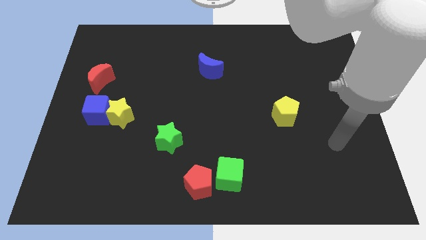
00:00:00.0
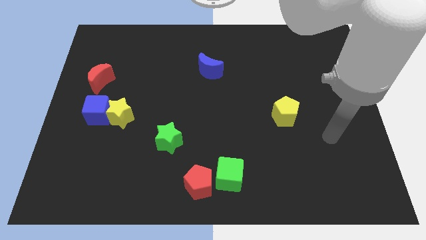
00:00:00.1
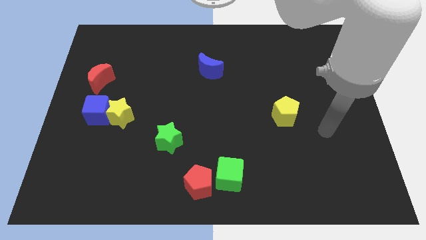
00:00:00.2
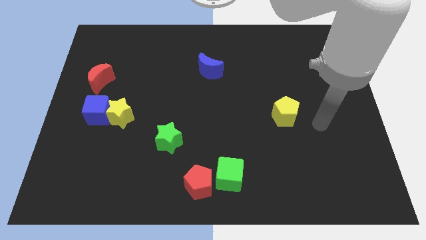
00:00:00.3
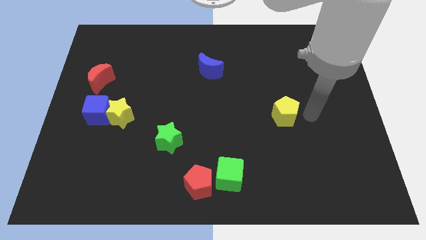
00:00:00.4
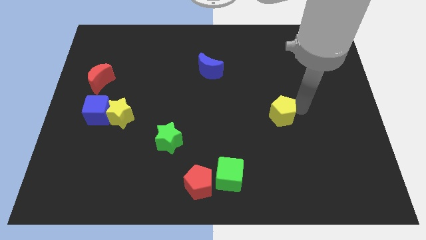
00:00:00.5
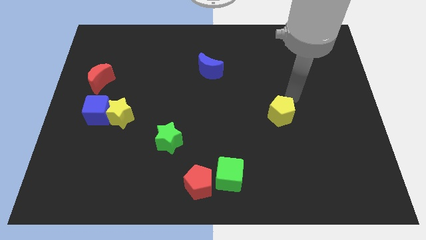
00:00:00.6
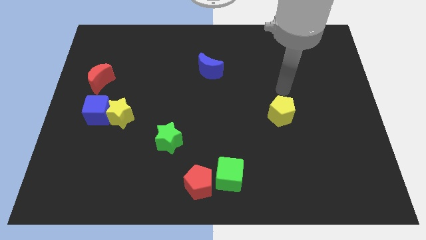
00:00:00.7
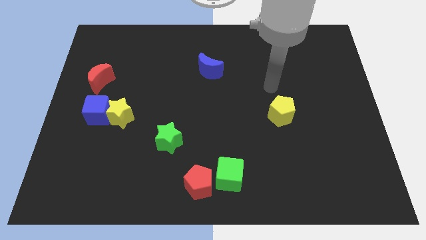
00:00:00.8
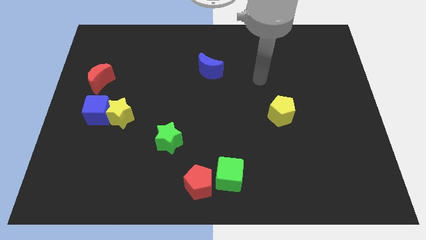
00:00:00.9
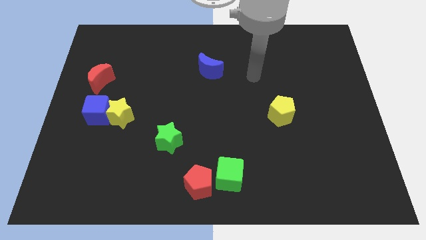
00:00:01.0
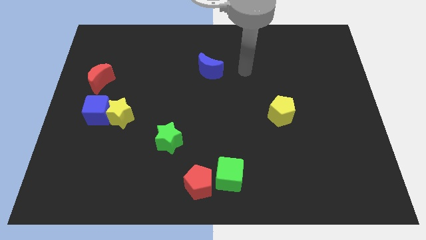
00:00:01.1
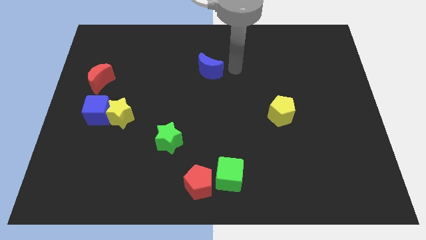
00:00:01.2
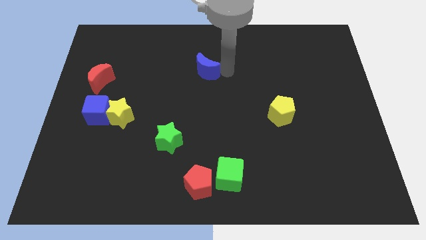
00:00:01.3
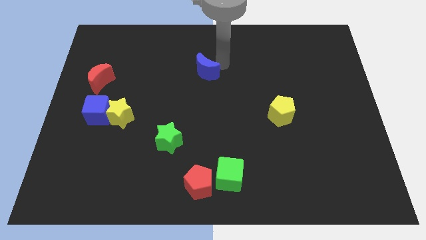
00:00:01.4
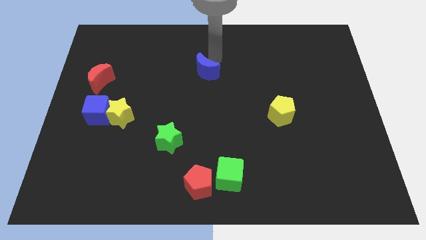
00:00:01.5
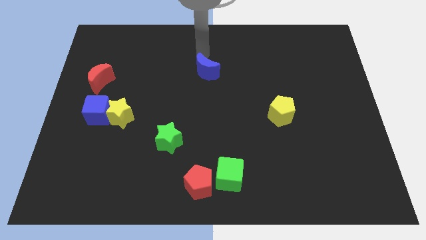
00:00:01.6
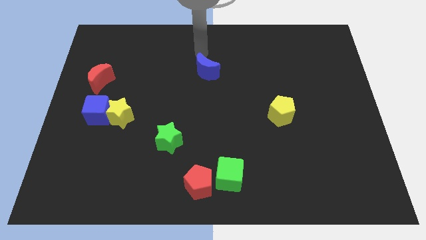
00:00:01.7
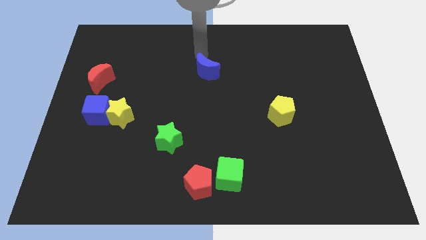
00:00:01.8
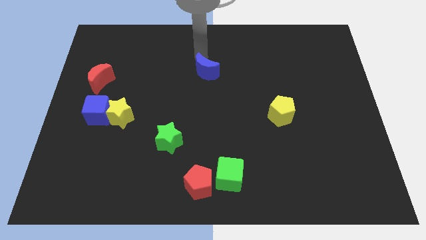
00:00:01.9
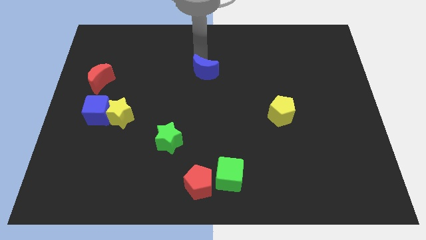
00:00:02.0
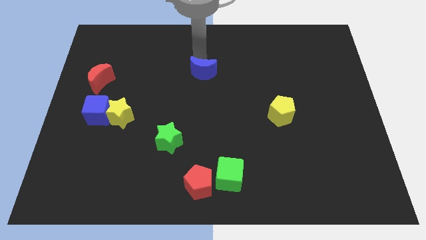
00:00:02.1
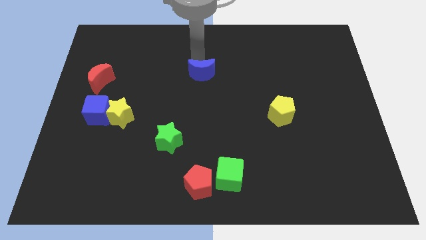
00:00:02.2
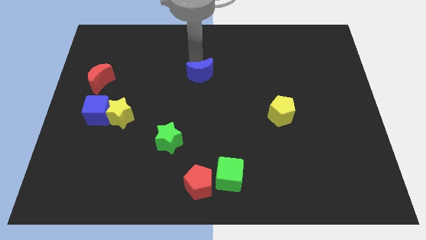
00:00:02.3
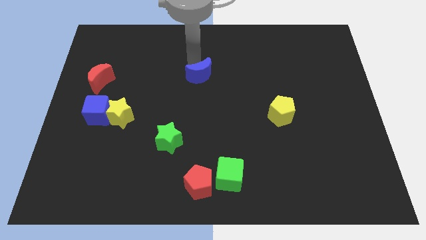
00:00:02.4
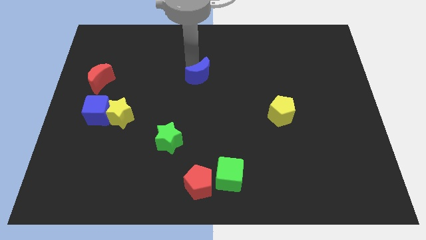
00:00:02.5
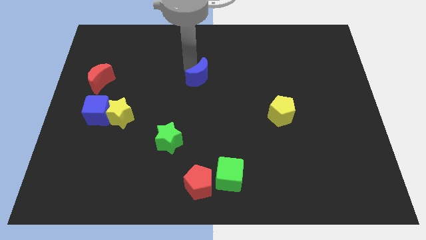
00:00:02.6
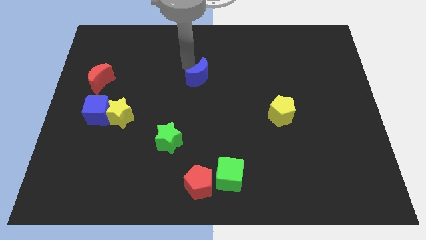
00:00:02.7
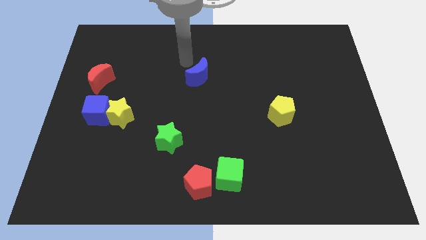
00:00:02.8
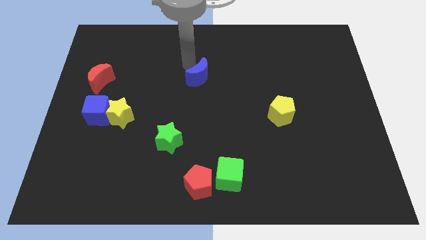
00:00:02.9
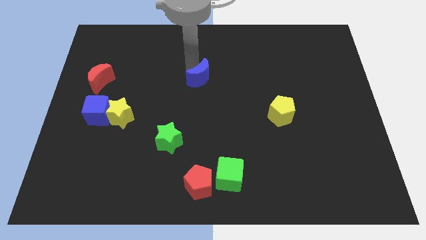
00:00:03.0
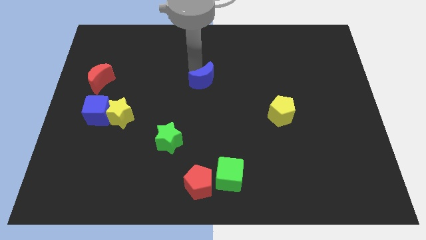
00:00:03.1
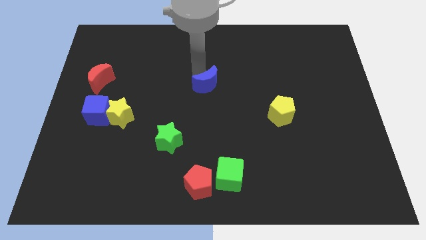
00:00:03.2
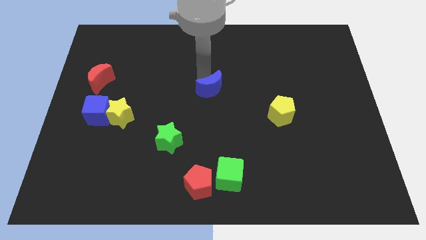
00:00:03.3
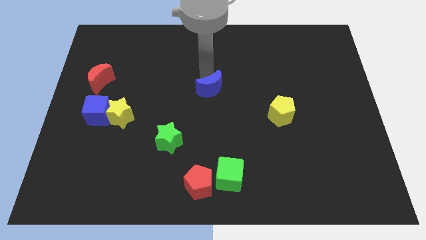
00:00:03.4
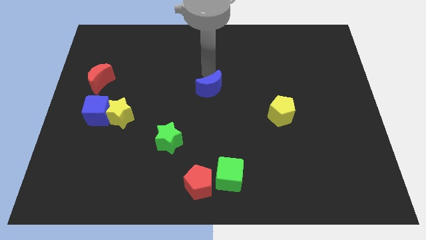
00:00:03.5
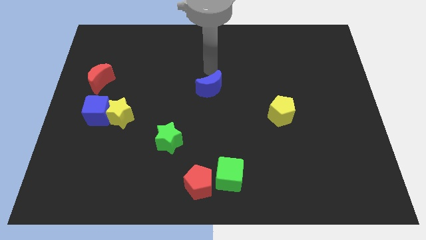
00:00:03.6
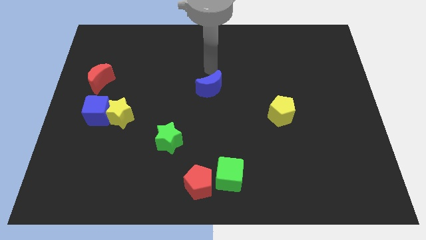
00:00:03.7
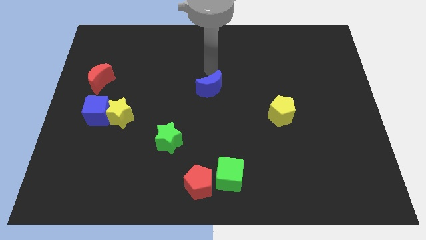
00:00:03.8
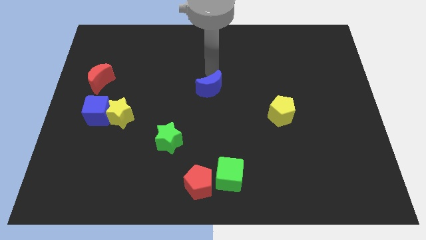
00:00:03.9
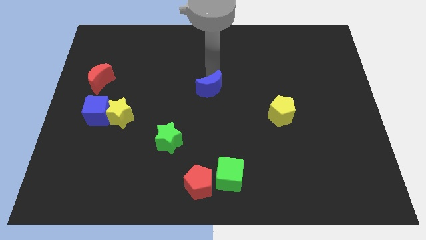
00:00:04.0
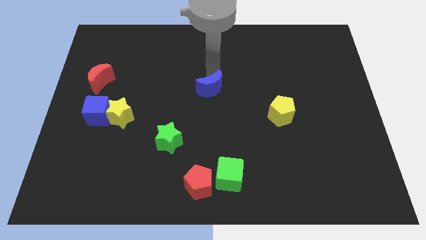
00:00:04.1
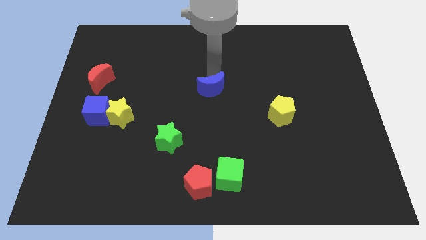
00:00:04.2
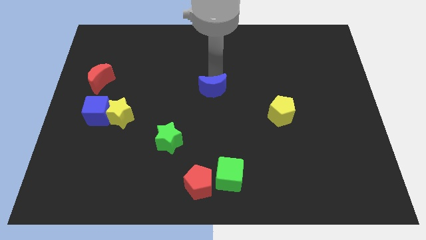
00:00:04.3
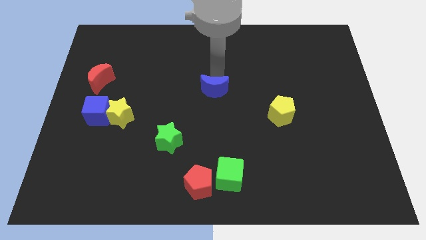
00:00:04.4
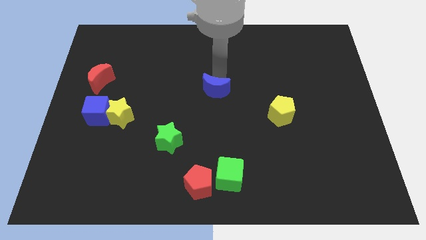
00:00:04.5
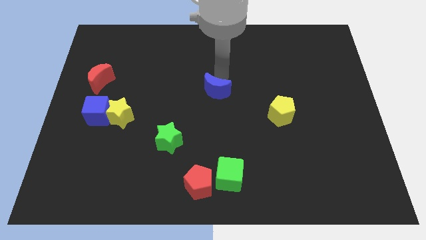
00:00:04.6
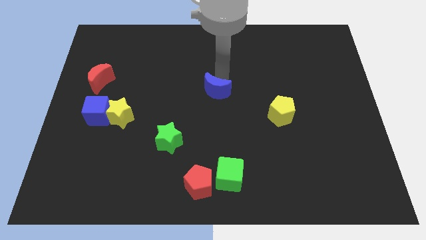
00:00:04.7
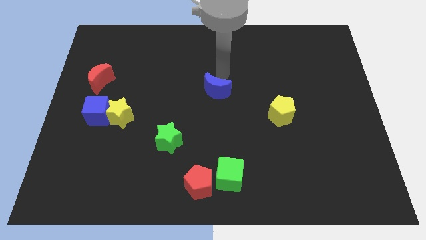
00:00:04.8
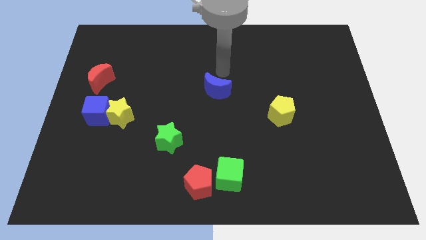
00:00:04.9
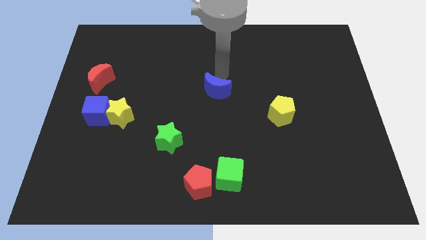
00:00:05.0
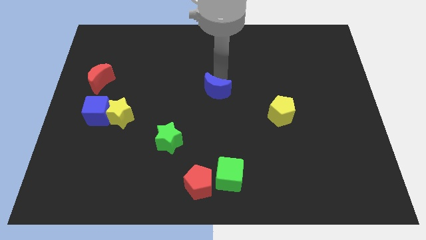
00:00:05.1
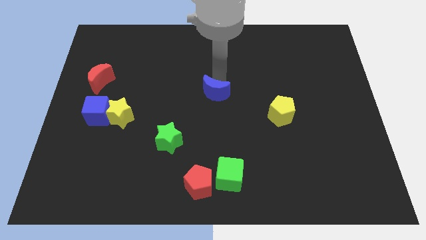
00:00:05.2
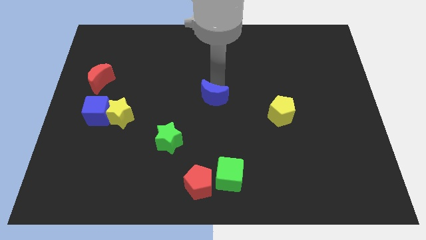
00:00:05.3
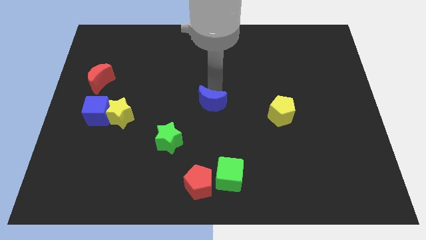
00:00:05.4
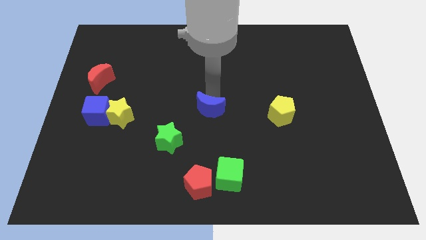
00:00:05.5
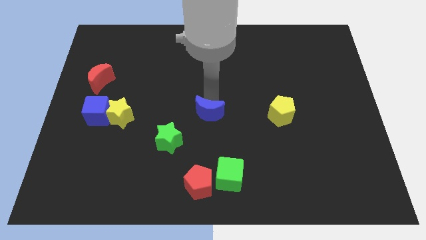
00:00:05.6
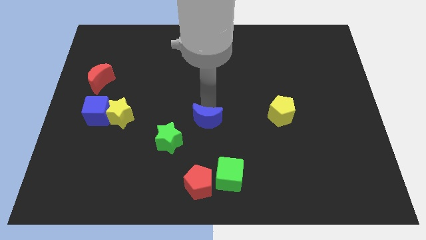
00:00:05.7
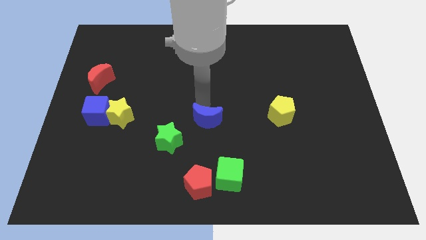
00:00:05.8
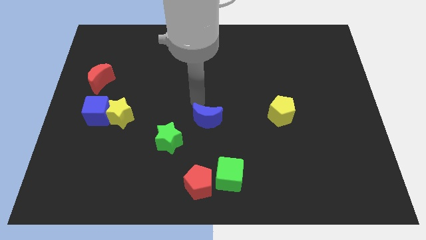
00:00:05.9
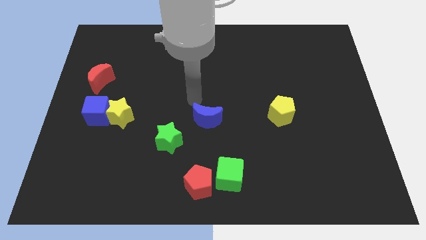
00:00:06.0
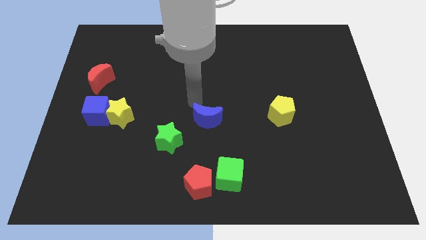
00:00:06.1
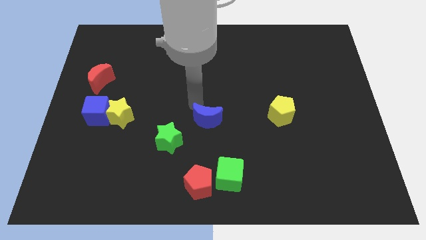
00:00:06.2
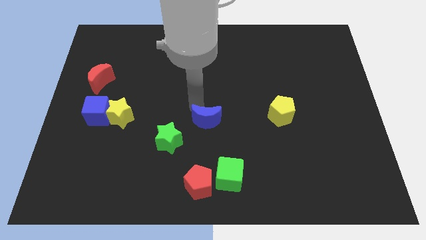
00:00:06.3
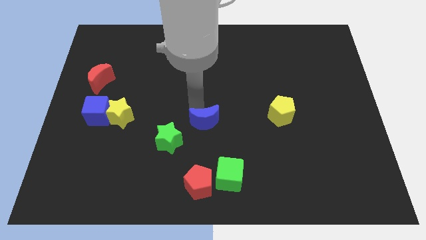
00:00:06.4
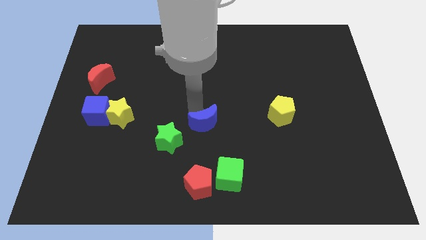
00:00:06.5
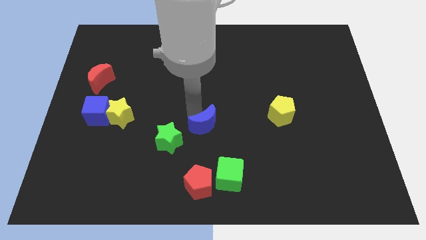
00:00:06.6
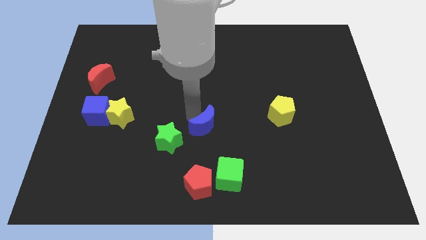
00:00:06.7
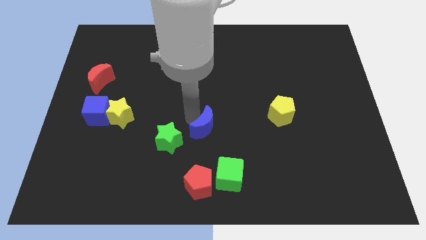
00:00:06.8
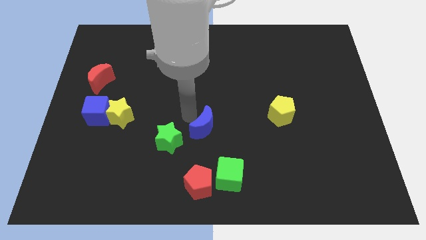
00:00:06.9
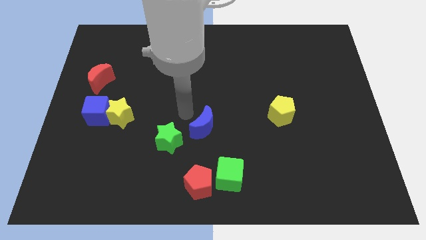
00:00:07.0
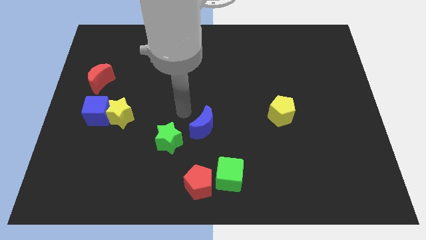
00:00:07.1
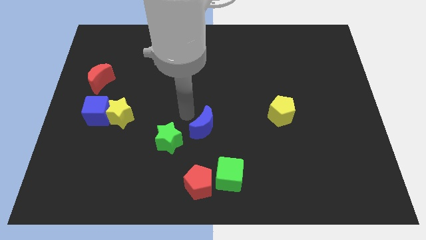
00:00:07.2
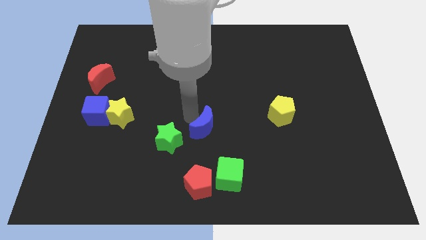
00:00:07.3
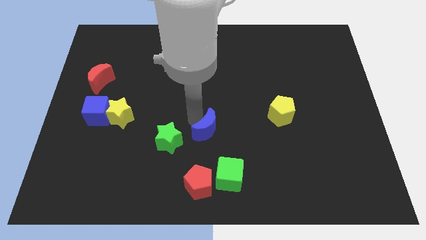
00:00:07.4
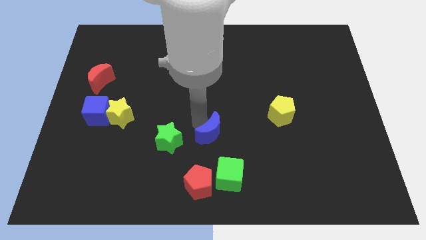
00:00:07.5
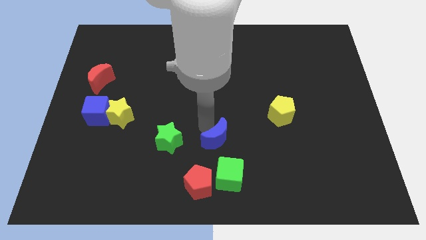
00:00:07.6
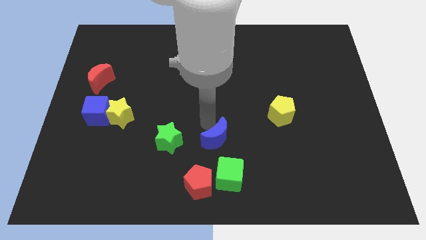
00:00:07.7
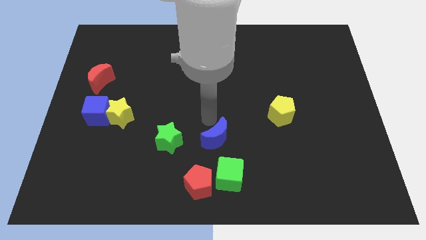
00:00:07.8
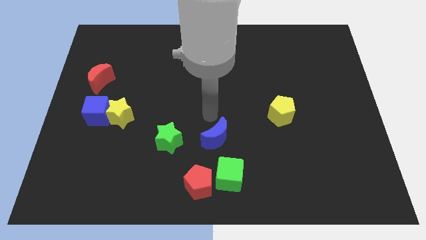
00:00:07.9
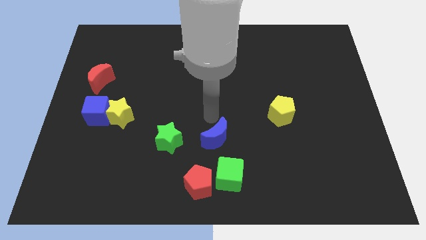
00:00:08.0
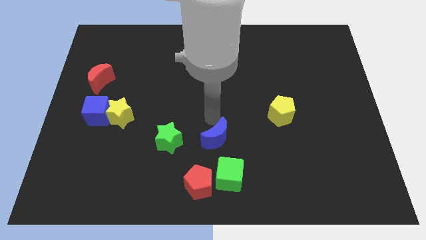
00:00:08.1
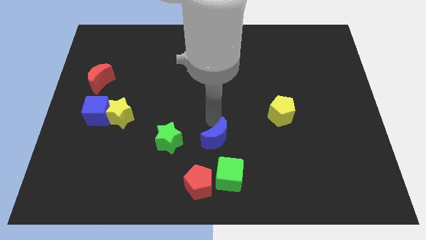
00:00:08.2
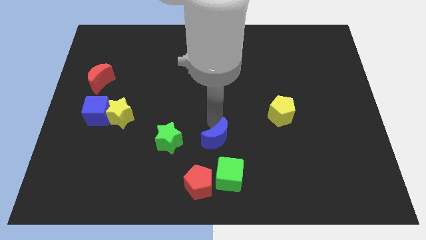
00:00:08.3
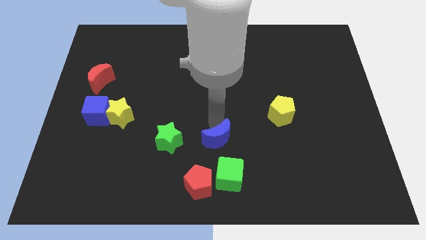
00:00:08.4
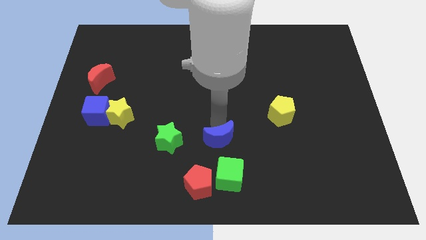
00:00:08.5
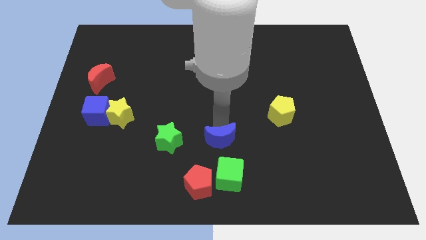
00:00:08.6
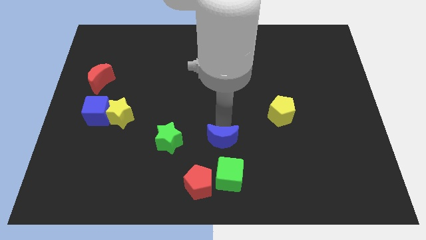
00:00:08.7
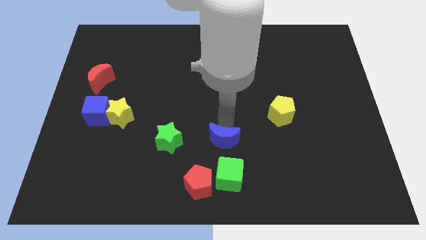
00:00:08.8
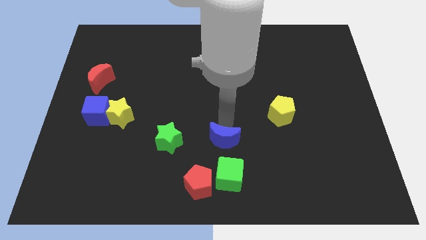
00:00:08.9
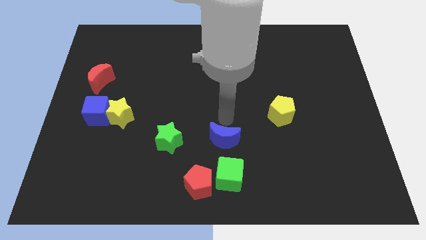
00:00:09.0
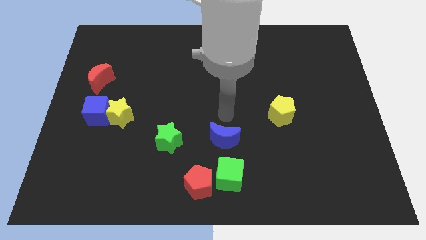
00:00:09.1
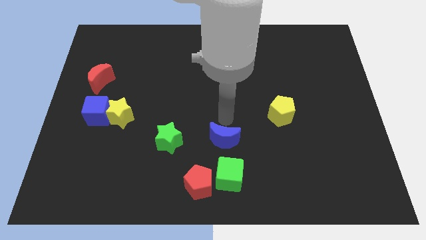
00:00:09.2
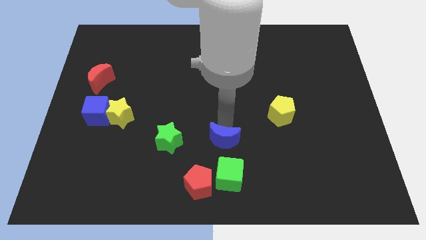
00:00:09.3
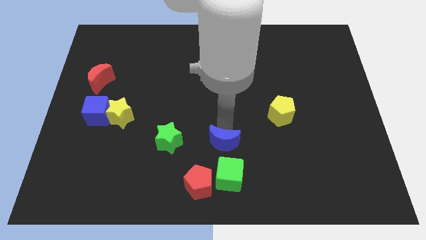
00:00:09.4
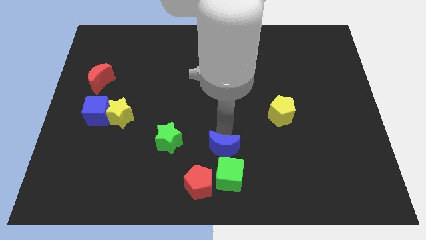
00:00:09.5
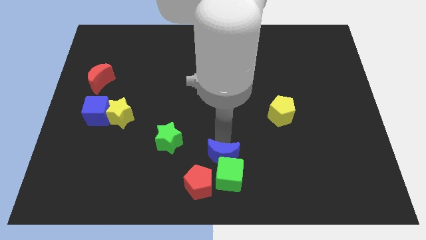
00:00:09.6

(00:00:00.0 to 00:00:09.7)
slide the blue moon towards the green cube
